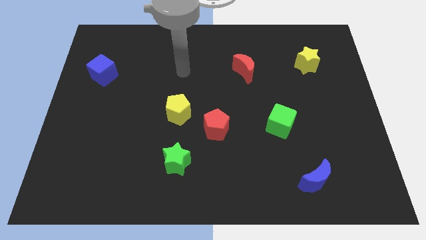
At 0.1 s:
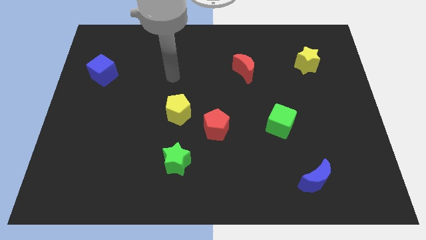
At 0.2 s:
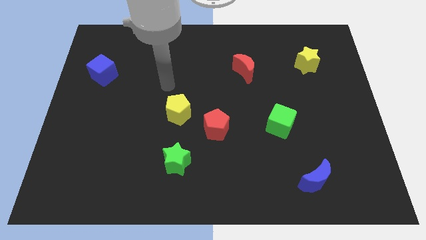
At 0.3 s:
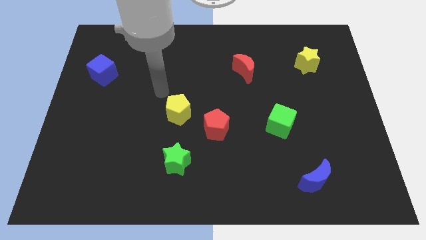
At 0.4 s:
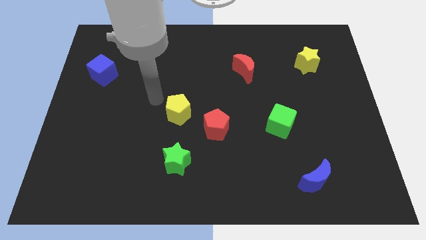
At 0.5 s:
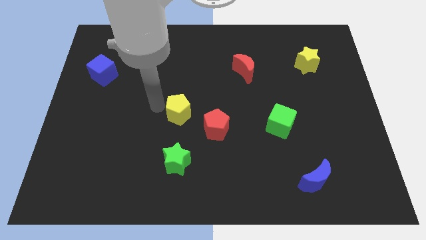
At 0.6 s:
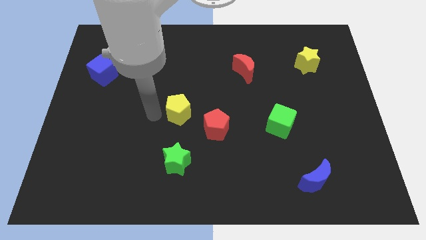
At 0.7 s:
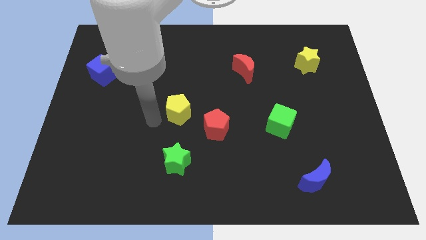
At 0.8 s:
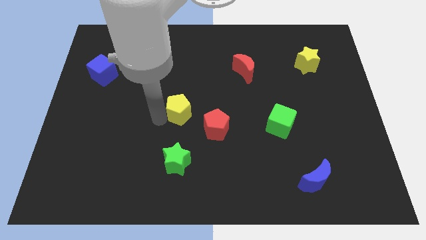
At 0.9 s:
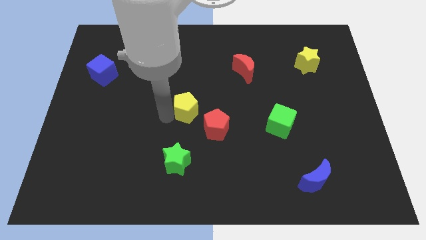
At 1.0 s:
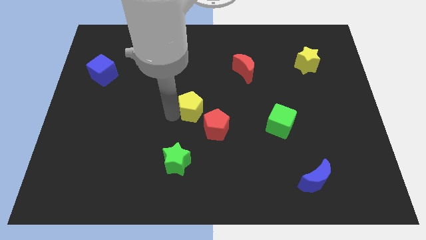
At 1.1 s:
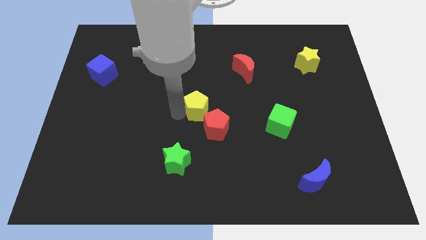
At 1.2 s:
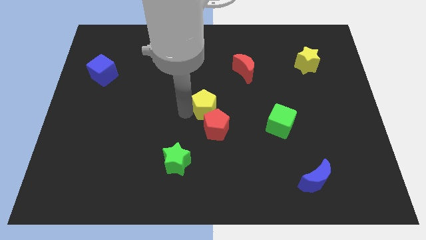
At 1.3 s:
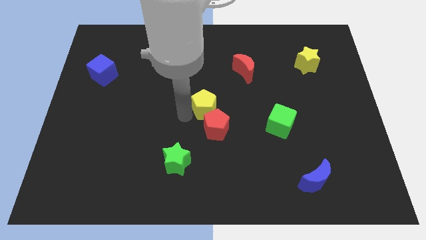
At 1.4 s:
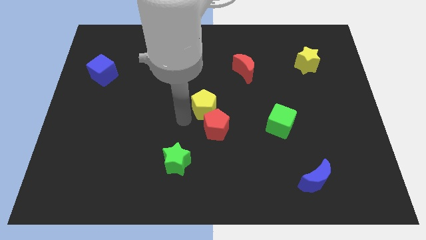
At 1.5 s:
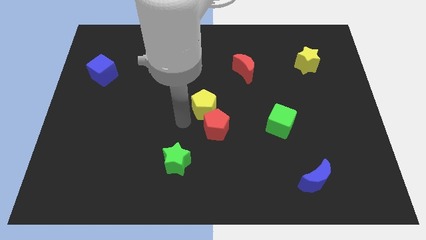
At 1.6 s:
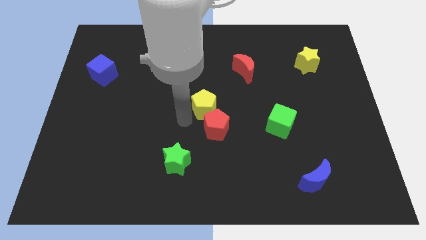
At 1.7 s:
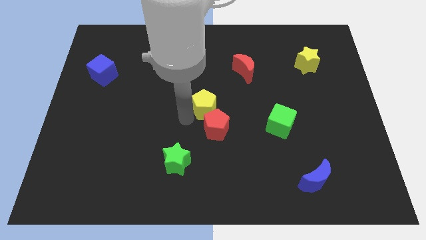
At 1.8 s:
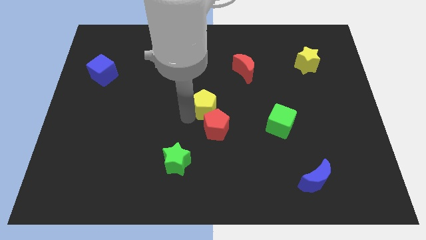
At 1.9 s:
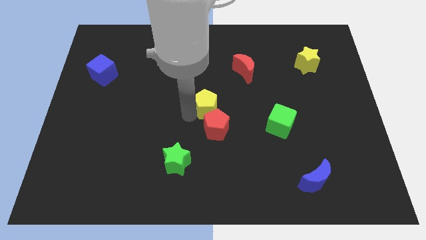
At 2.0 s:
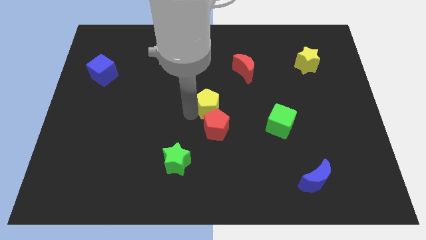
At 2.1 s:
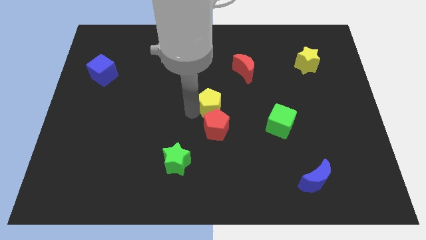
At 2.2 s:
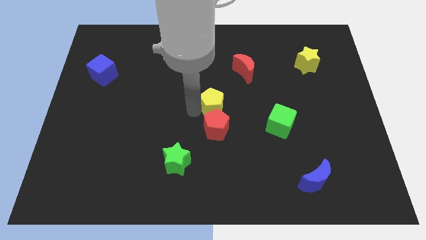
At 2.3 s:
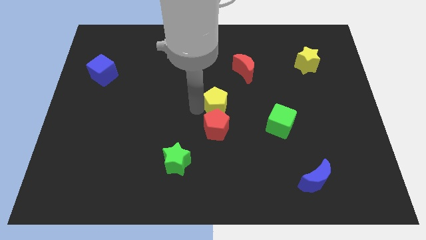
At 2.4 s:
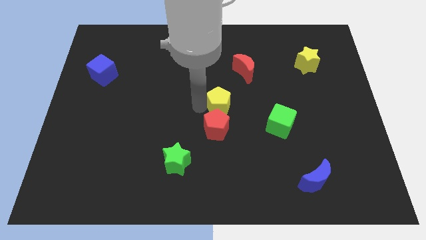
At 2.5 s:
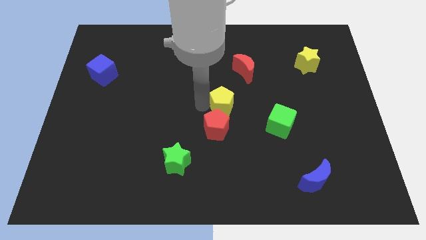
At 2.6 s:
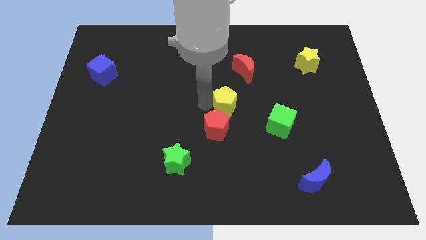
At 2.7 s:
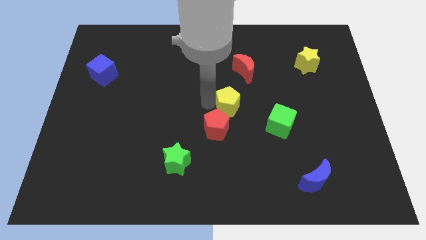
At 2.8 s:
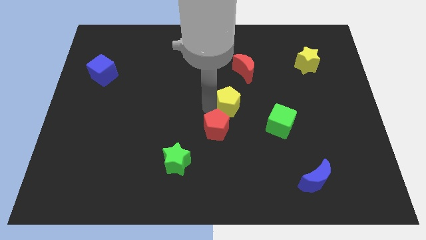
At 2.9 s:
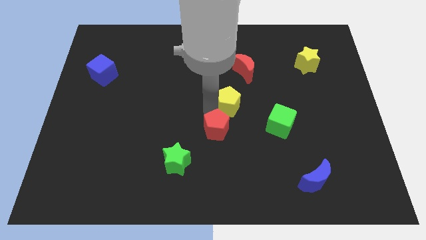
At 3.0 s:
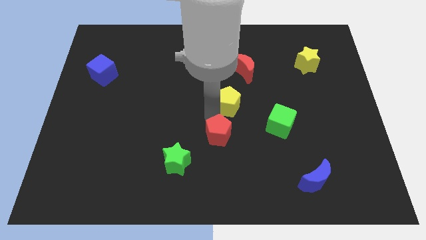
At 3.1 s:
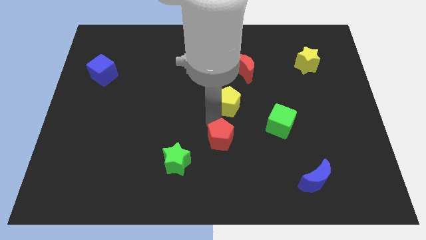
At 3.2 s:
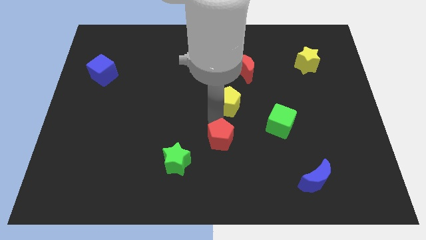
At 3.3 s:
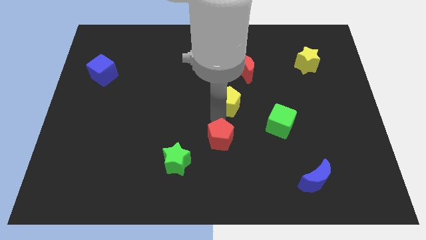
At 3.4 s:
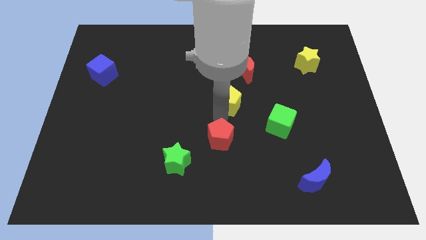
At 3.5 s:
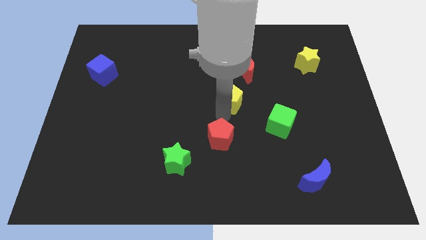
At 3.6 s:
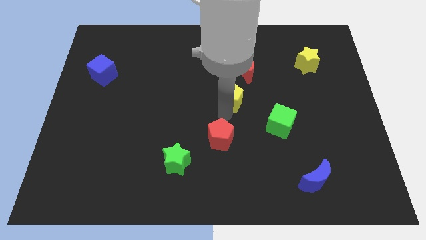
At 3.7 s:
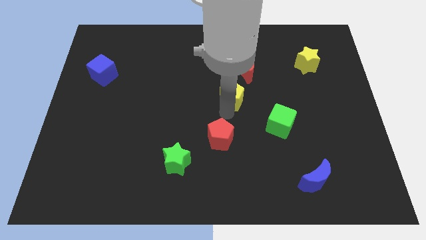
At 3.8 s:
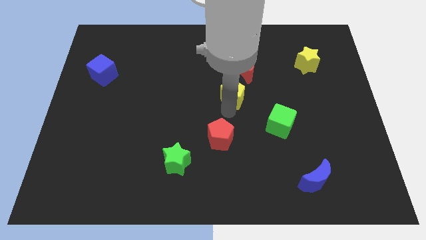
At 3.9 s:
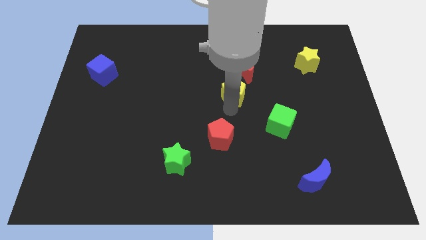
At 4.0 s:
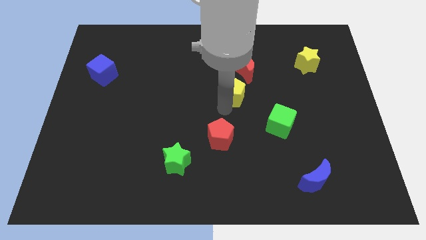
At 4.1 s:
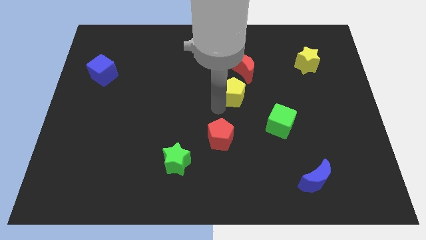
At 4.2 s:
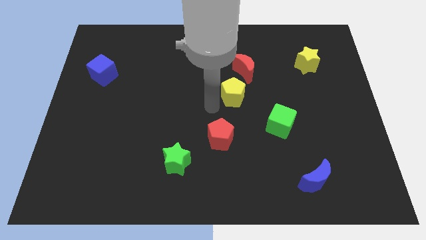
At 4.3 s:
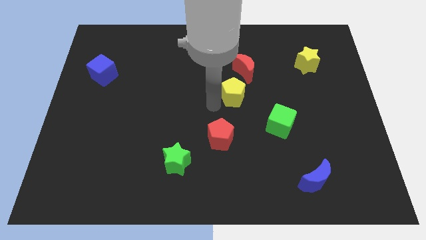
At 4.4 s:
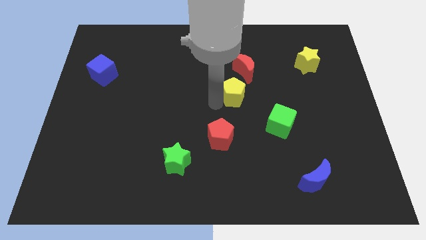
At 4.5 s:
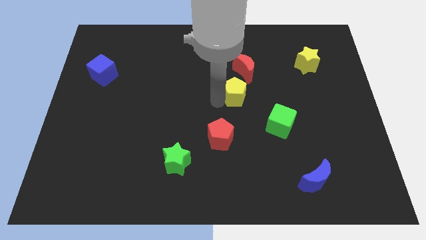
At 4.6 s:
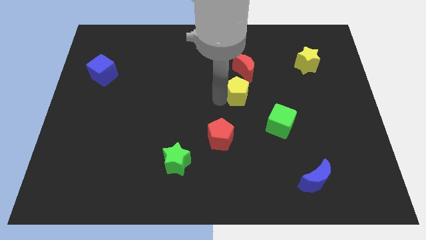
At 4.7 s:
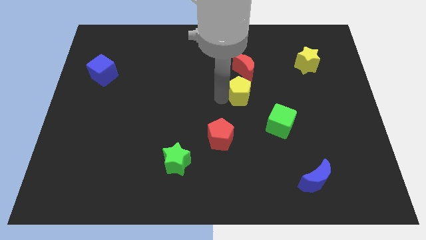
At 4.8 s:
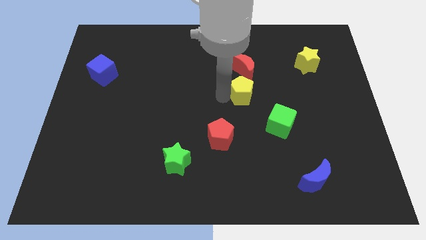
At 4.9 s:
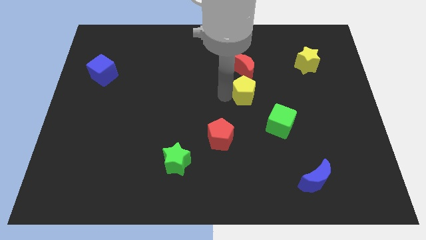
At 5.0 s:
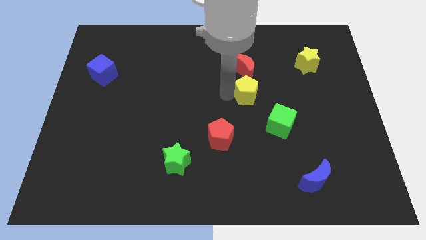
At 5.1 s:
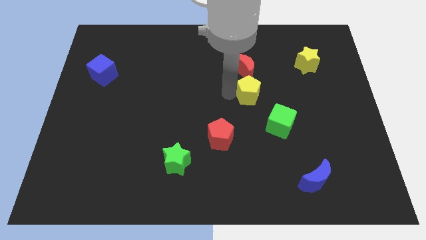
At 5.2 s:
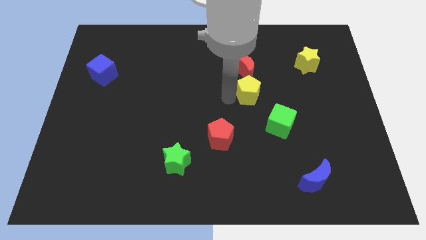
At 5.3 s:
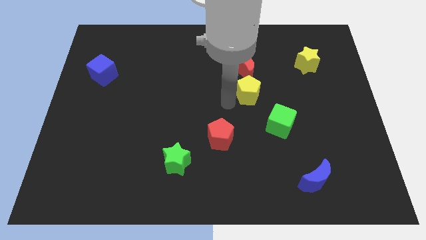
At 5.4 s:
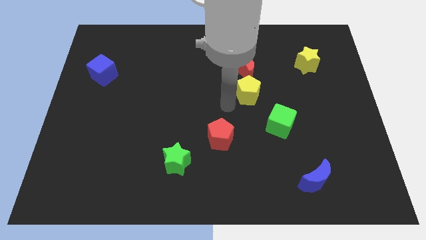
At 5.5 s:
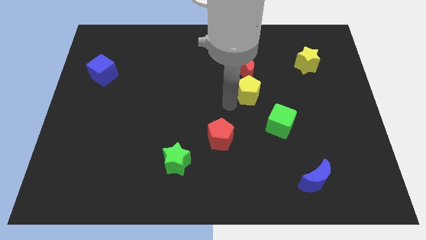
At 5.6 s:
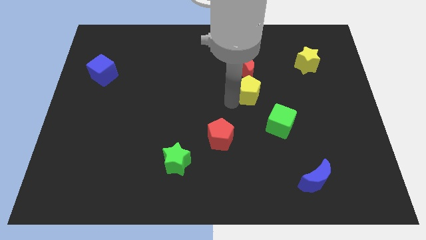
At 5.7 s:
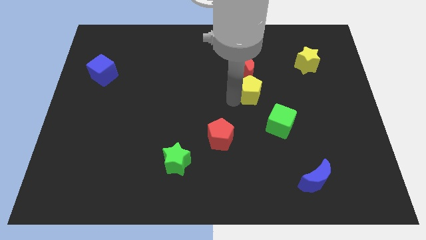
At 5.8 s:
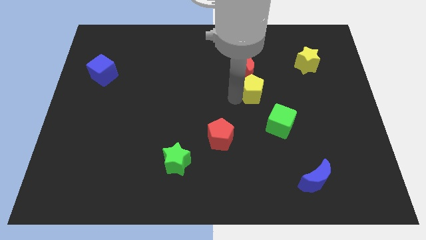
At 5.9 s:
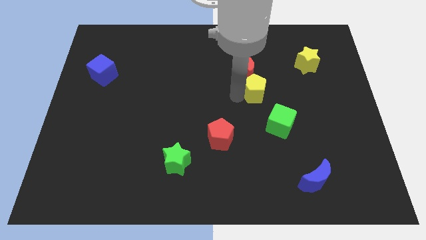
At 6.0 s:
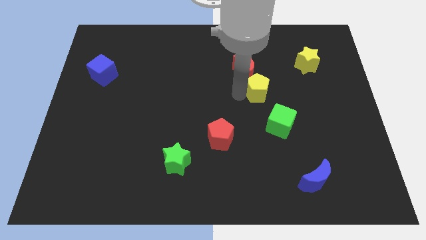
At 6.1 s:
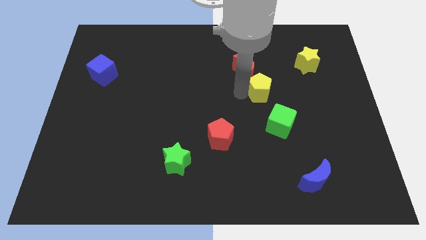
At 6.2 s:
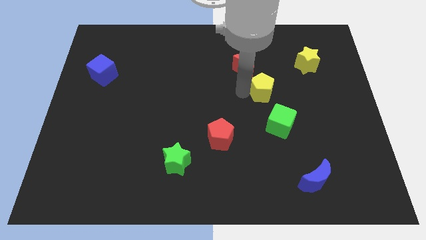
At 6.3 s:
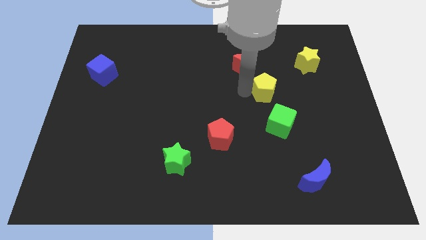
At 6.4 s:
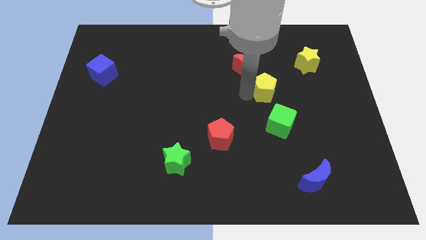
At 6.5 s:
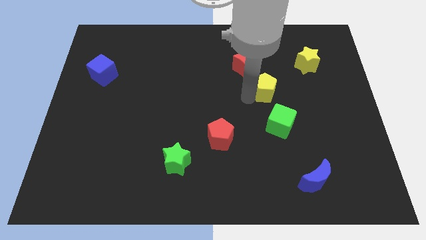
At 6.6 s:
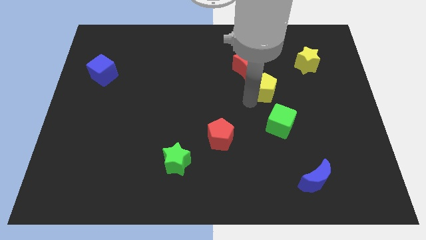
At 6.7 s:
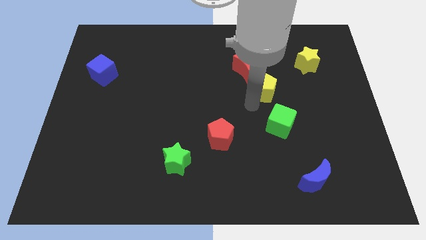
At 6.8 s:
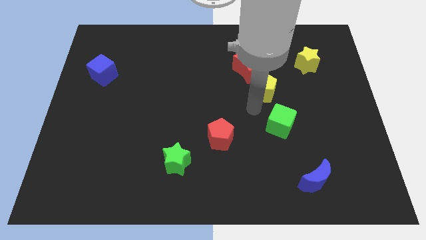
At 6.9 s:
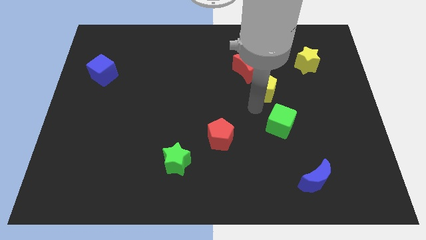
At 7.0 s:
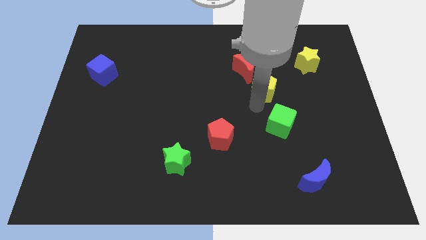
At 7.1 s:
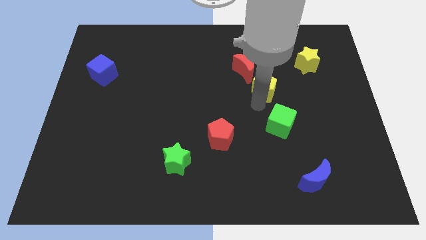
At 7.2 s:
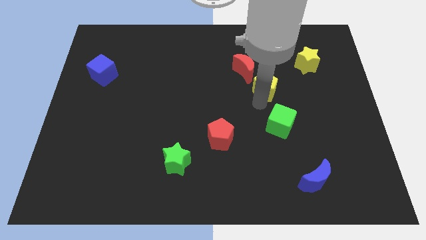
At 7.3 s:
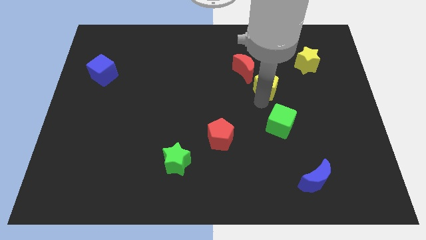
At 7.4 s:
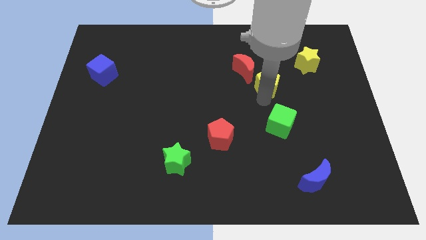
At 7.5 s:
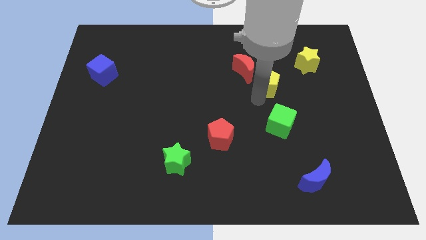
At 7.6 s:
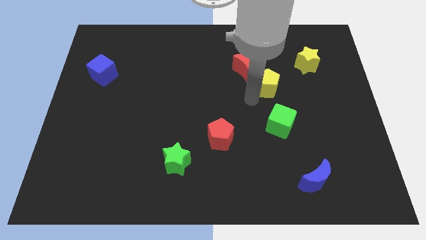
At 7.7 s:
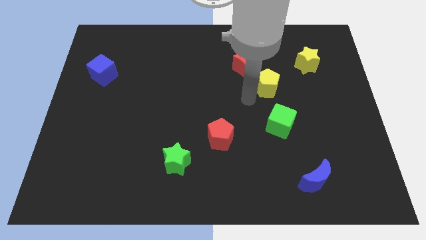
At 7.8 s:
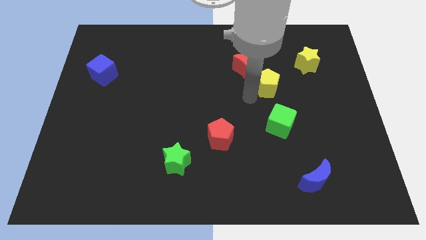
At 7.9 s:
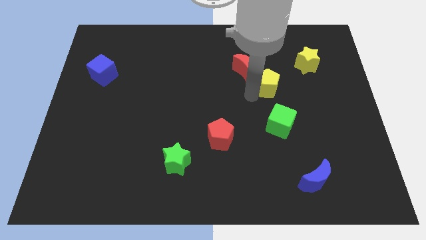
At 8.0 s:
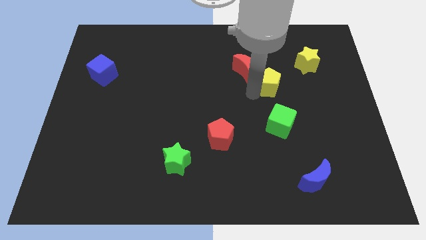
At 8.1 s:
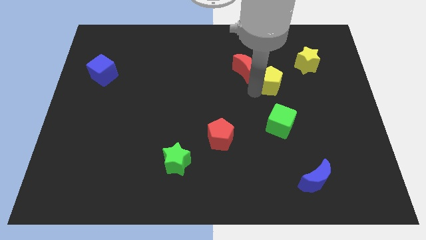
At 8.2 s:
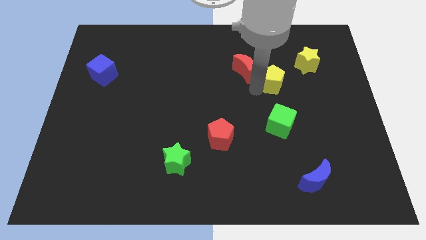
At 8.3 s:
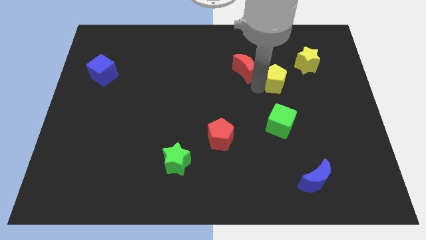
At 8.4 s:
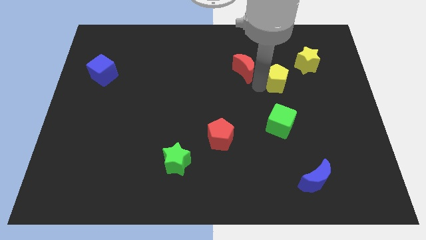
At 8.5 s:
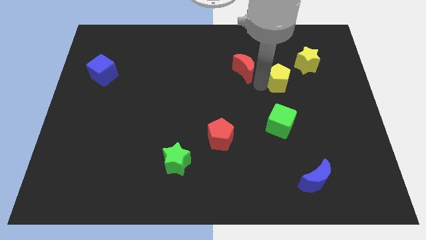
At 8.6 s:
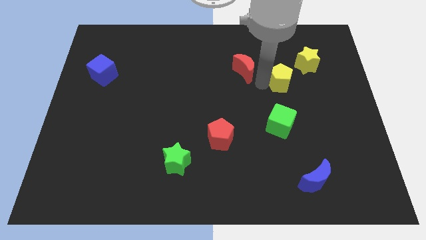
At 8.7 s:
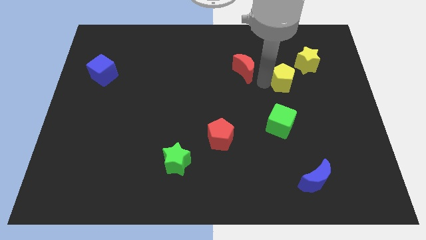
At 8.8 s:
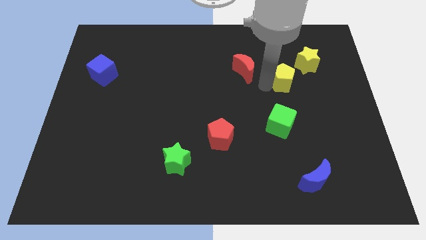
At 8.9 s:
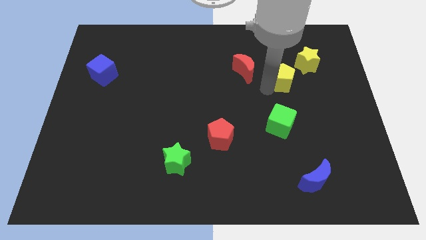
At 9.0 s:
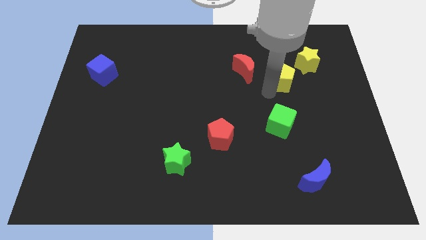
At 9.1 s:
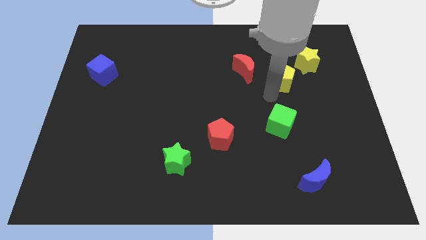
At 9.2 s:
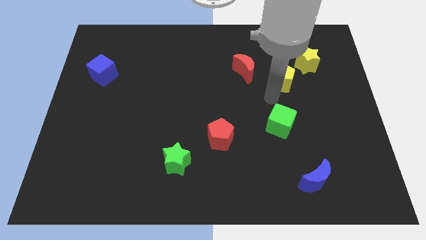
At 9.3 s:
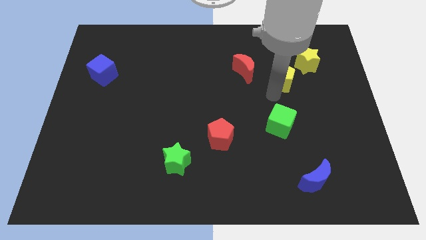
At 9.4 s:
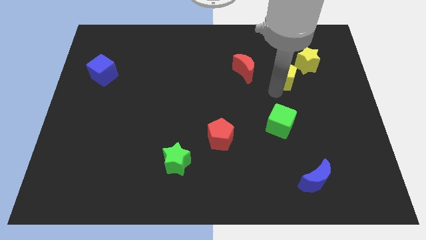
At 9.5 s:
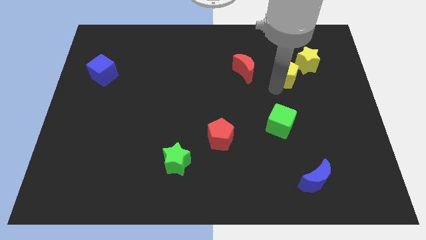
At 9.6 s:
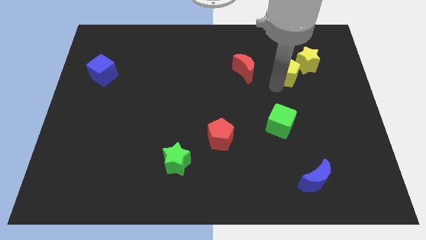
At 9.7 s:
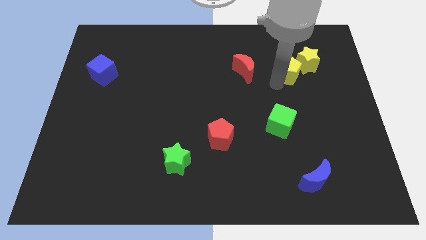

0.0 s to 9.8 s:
move the yellow pentagon close to the yellow star
